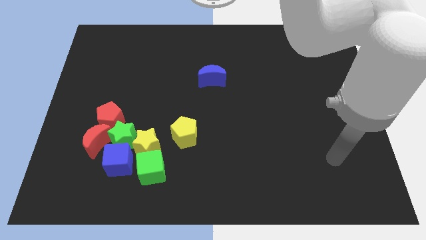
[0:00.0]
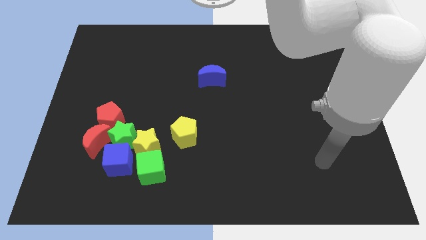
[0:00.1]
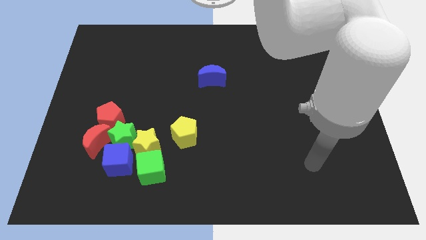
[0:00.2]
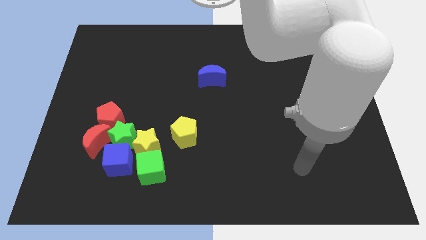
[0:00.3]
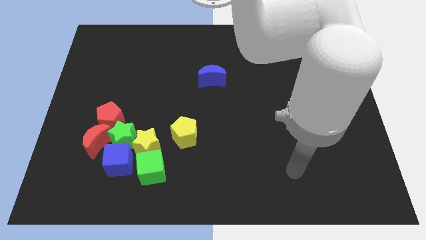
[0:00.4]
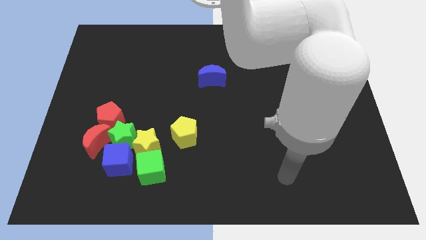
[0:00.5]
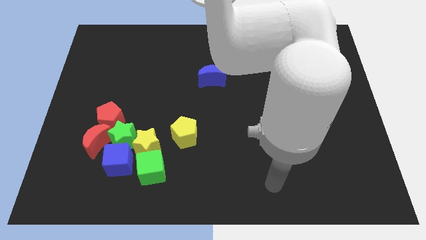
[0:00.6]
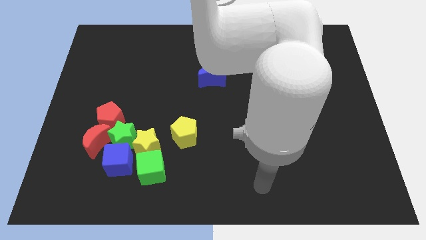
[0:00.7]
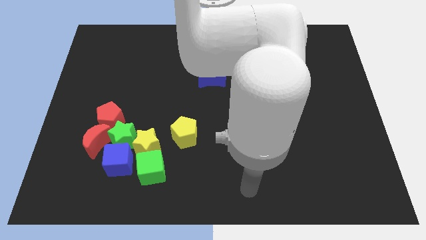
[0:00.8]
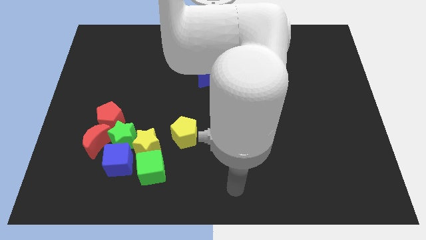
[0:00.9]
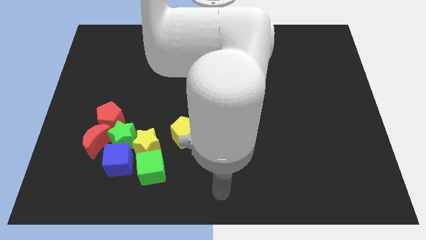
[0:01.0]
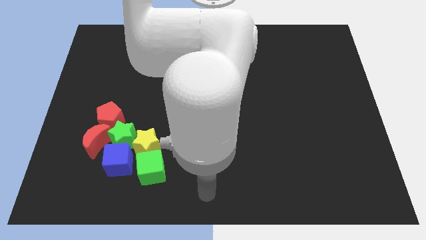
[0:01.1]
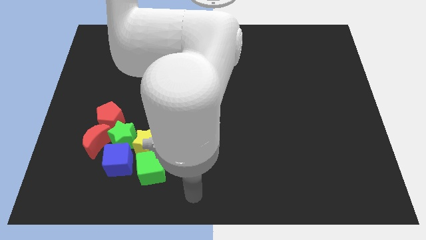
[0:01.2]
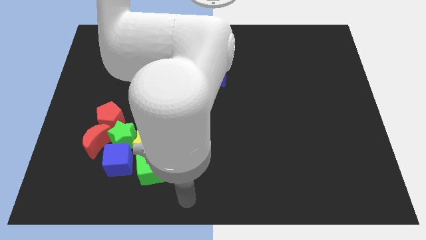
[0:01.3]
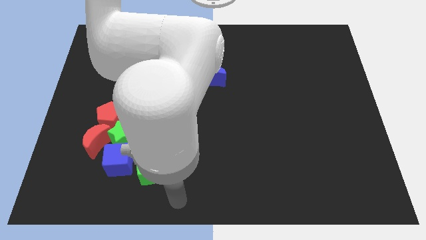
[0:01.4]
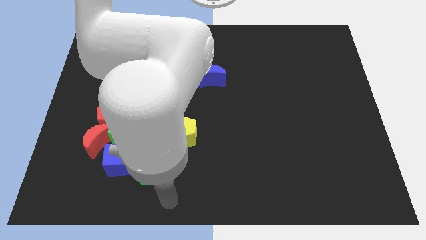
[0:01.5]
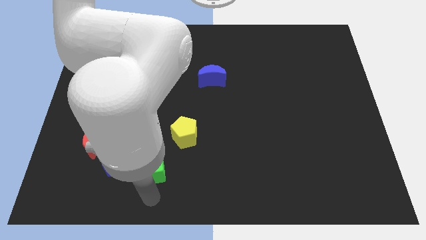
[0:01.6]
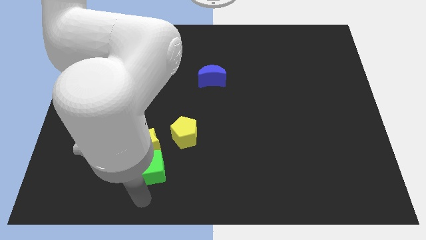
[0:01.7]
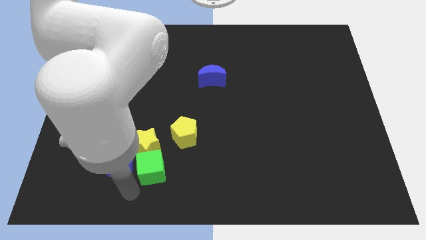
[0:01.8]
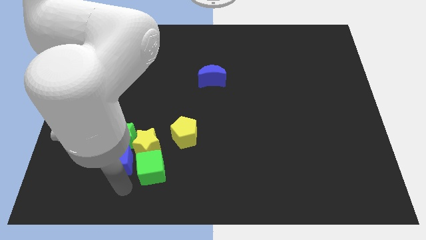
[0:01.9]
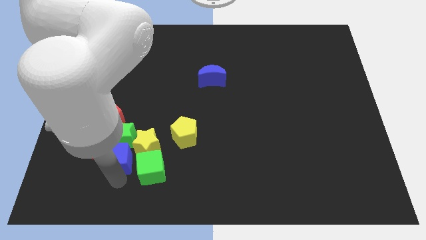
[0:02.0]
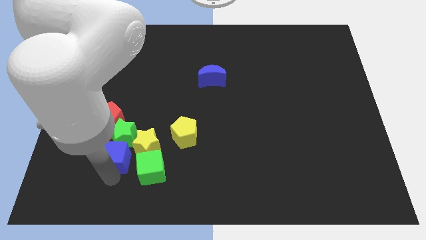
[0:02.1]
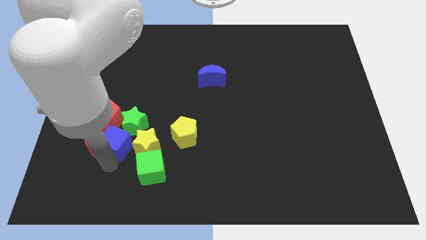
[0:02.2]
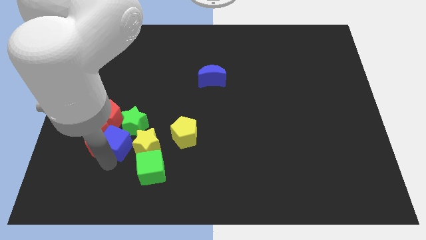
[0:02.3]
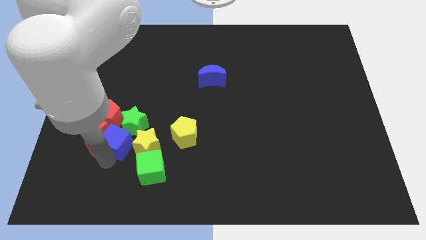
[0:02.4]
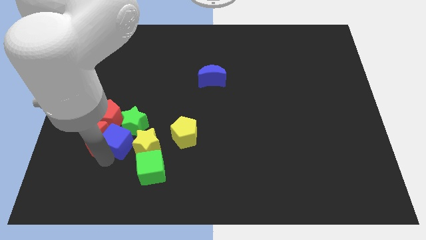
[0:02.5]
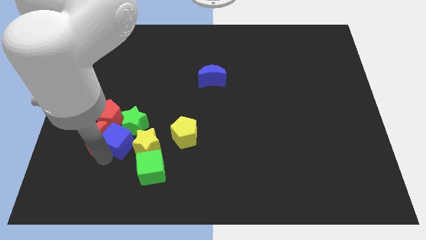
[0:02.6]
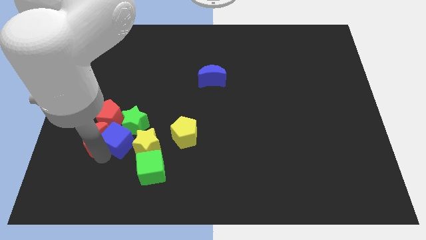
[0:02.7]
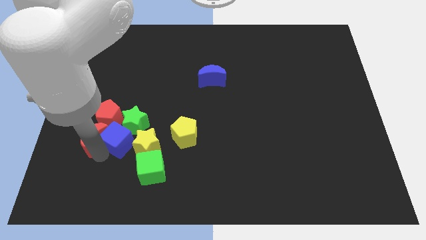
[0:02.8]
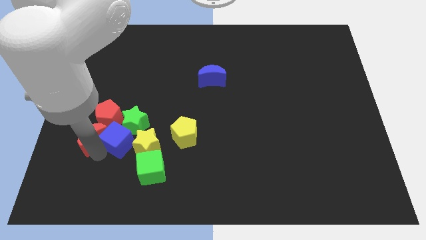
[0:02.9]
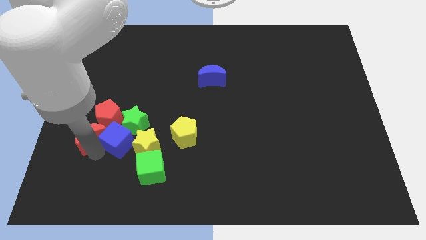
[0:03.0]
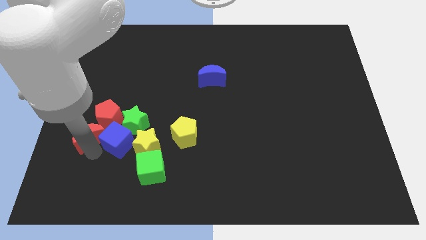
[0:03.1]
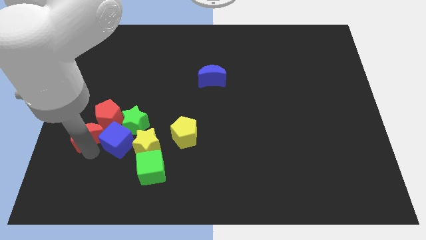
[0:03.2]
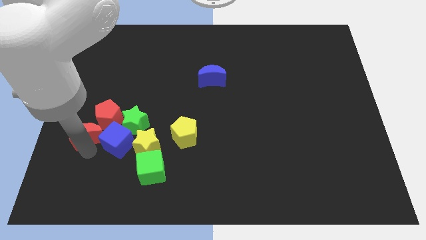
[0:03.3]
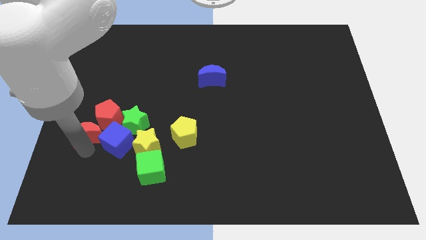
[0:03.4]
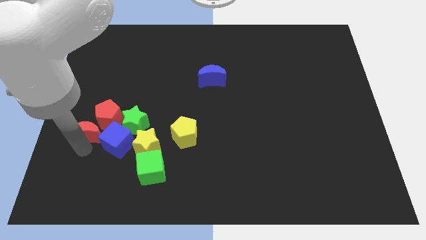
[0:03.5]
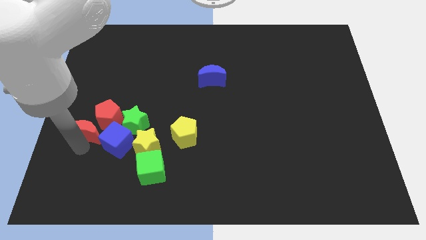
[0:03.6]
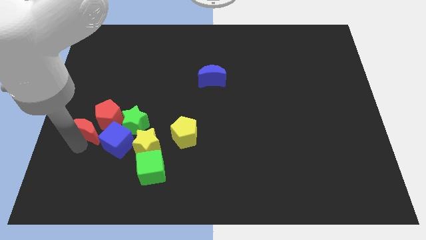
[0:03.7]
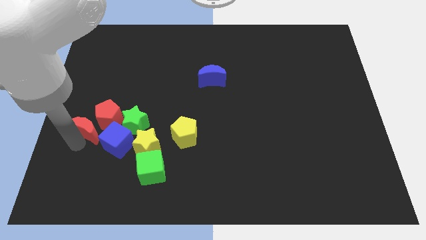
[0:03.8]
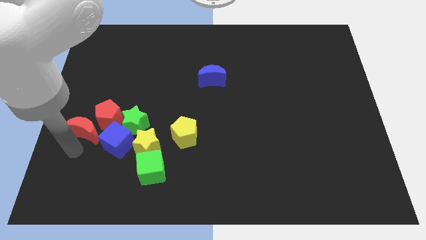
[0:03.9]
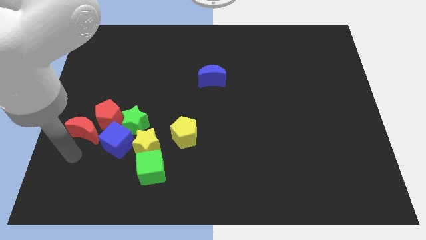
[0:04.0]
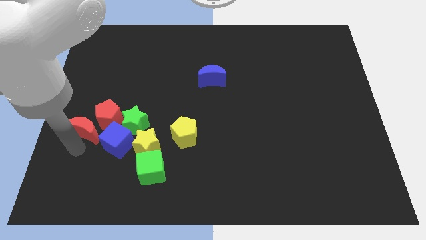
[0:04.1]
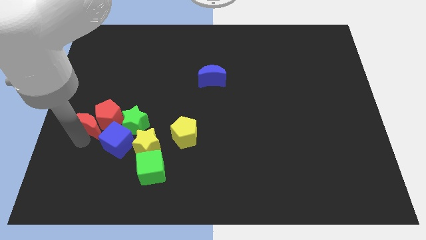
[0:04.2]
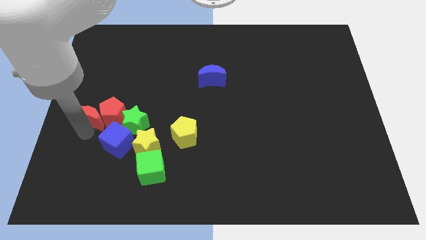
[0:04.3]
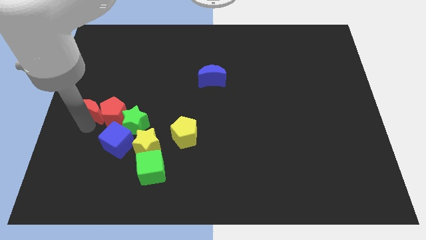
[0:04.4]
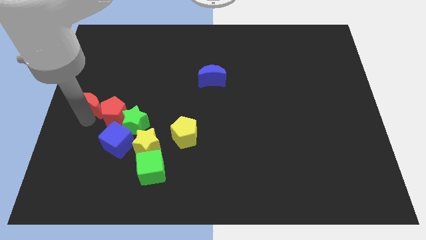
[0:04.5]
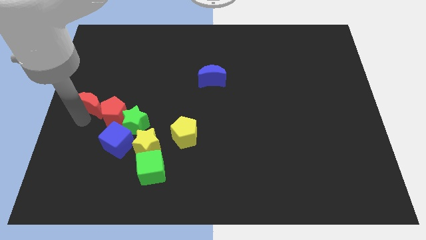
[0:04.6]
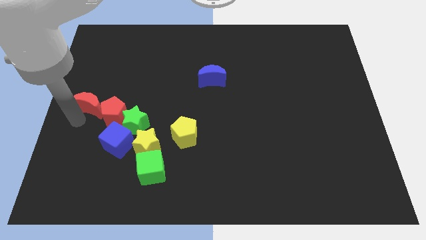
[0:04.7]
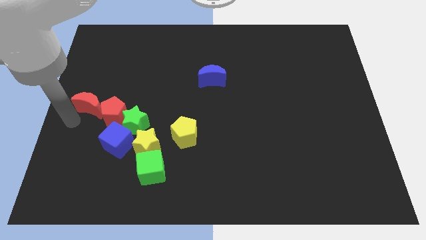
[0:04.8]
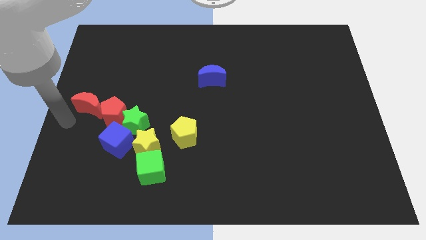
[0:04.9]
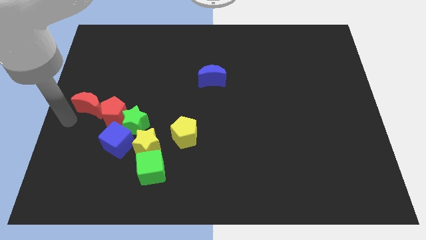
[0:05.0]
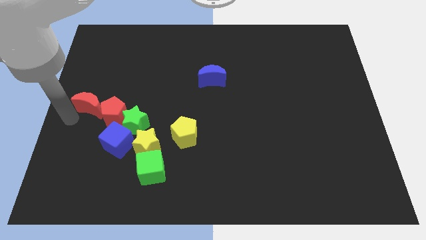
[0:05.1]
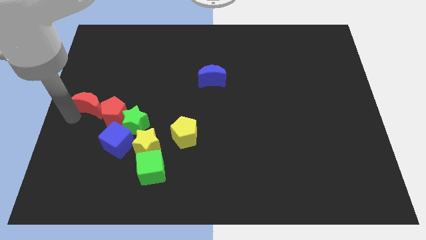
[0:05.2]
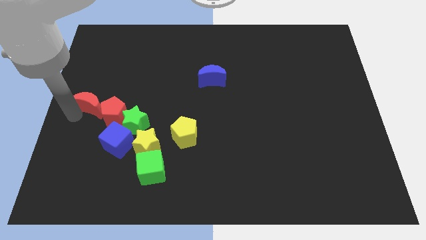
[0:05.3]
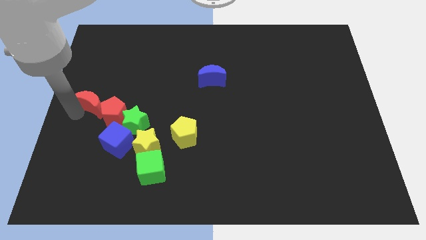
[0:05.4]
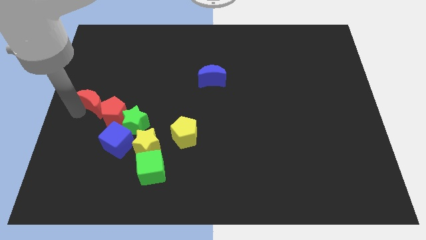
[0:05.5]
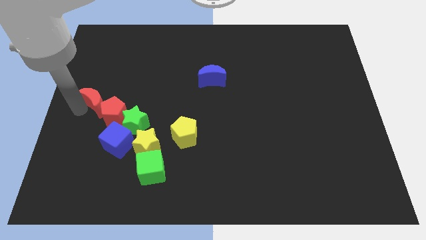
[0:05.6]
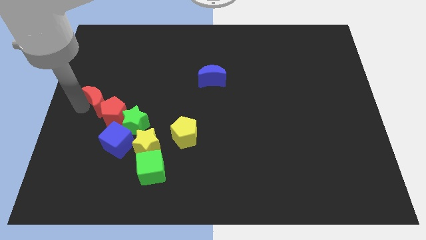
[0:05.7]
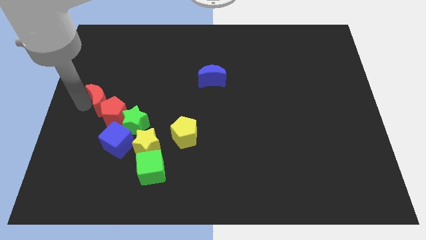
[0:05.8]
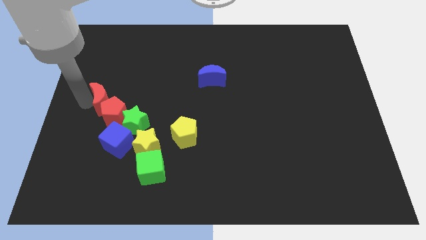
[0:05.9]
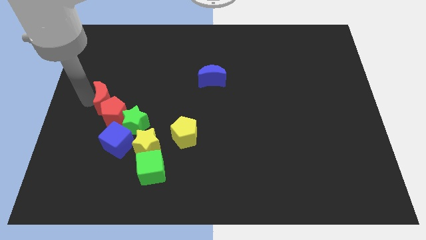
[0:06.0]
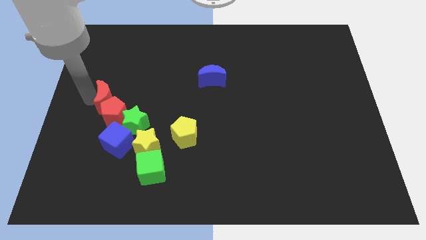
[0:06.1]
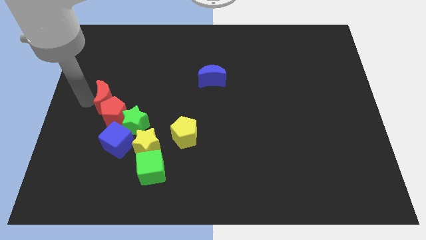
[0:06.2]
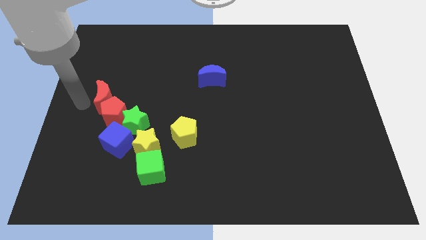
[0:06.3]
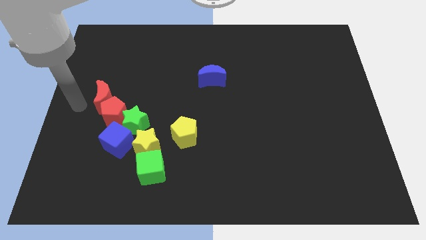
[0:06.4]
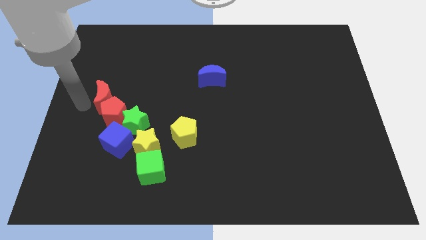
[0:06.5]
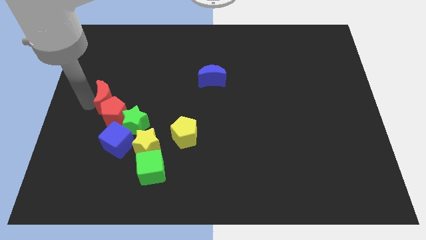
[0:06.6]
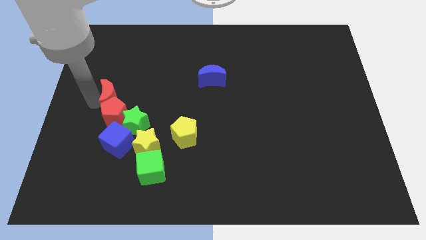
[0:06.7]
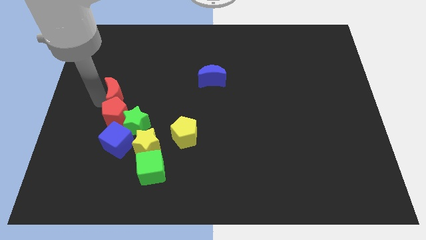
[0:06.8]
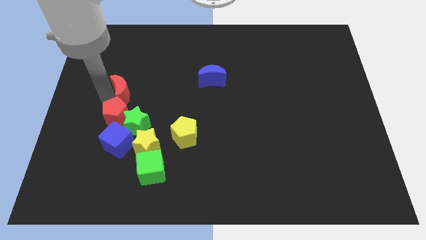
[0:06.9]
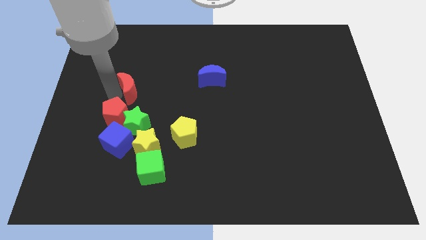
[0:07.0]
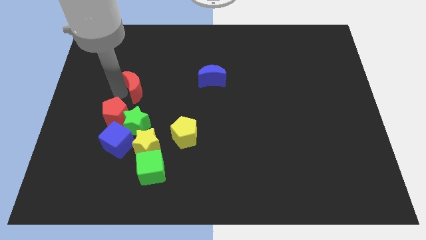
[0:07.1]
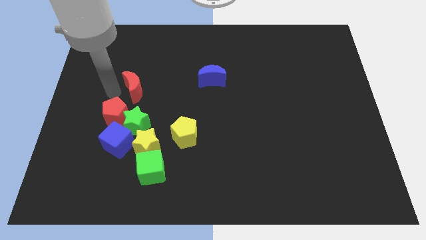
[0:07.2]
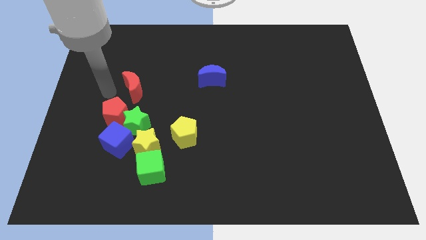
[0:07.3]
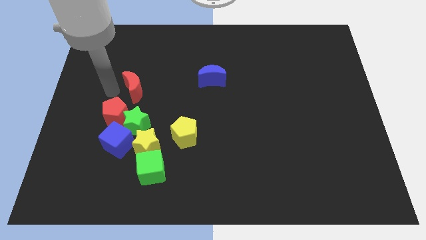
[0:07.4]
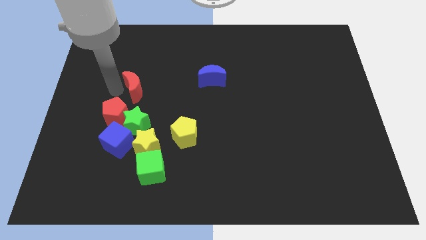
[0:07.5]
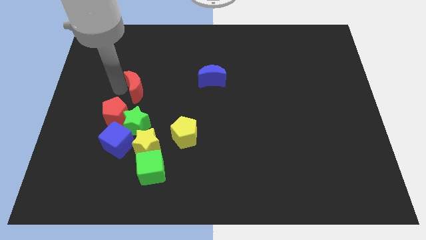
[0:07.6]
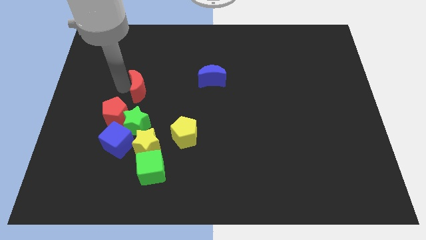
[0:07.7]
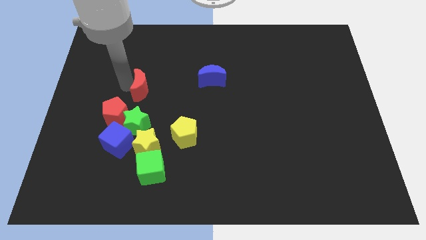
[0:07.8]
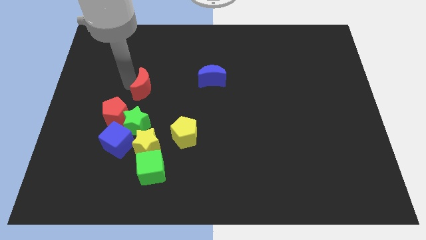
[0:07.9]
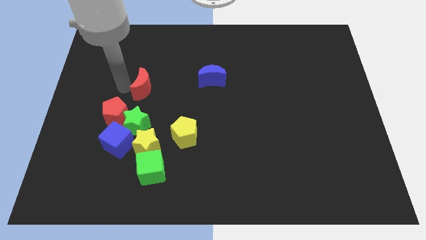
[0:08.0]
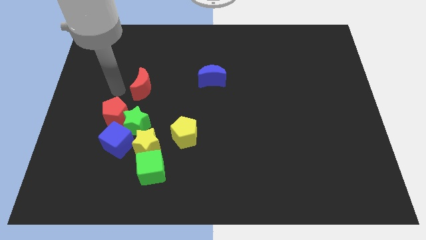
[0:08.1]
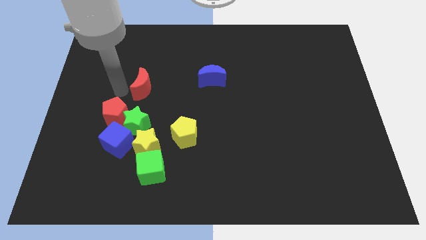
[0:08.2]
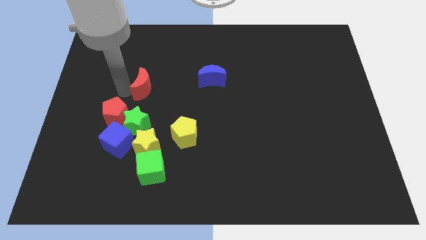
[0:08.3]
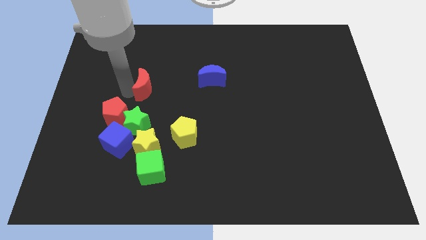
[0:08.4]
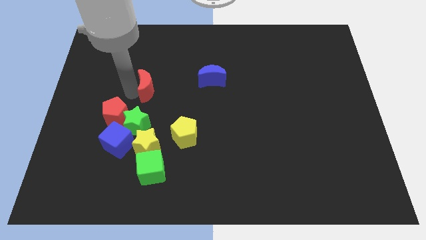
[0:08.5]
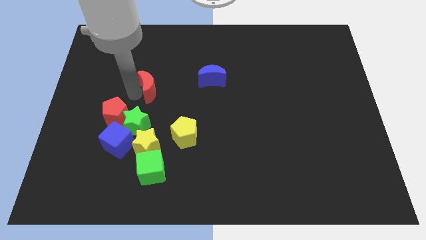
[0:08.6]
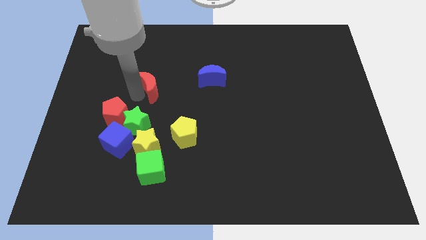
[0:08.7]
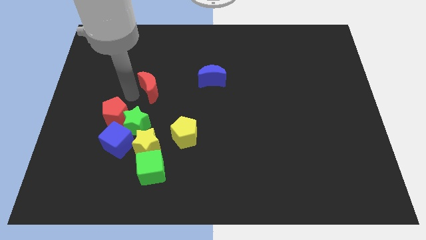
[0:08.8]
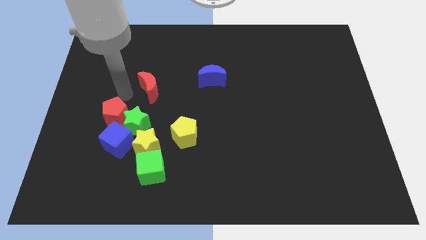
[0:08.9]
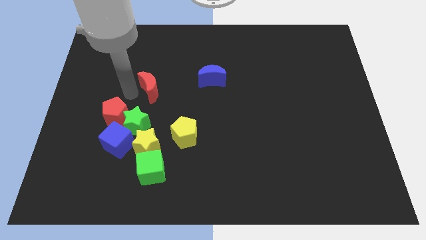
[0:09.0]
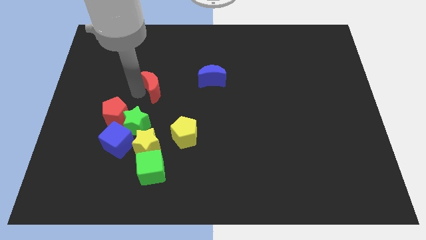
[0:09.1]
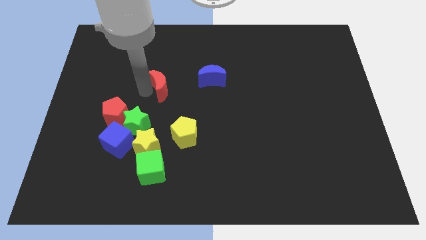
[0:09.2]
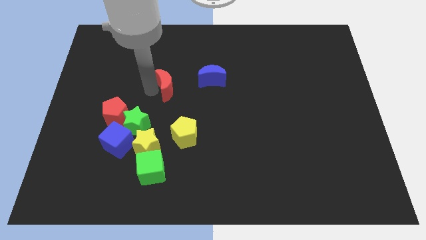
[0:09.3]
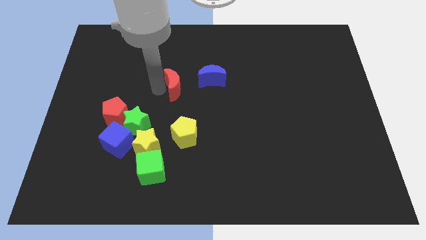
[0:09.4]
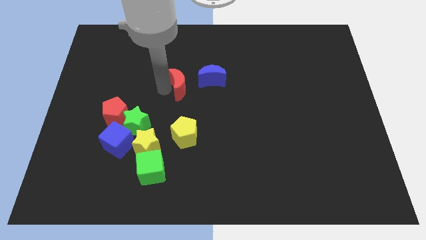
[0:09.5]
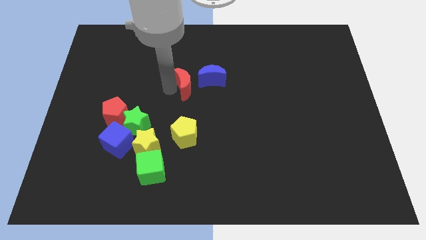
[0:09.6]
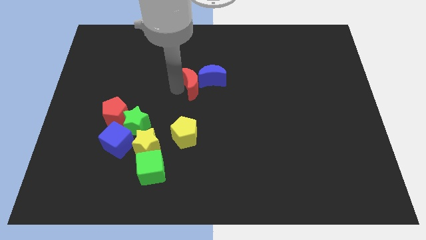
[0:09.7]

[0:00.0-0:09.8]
slide the red moon next to the blue moon
